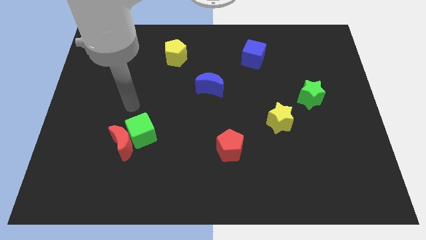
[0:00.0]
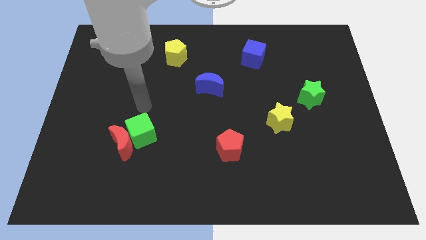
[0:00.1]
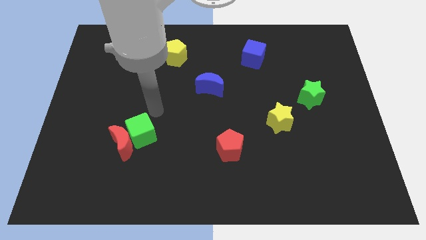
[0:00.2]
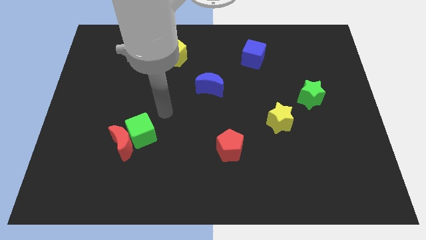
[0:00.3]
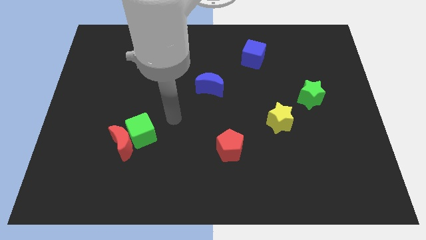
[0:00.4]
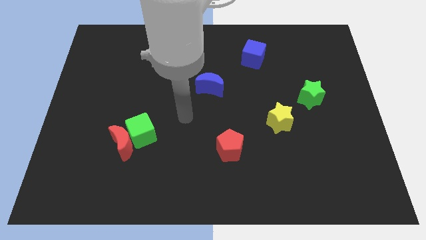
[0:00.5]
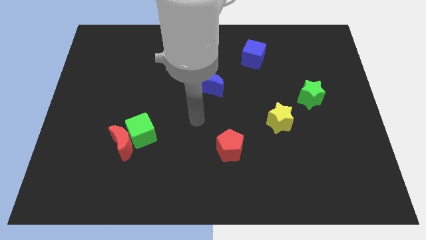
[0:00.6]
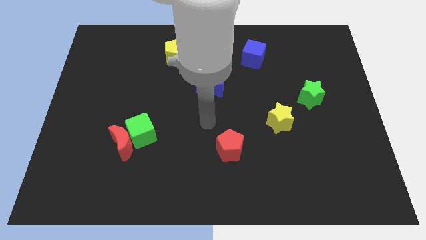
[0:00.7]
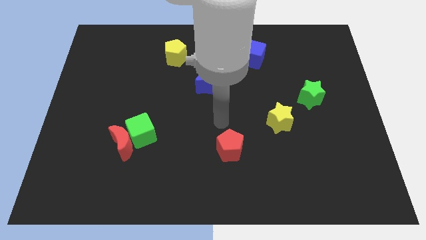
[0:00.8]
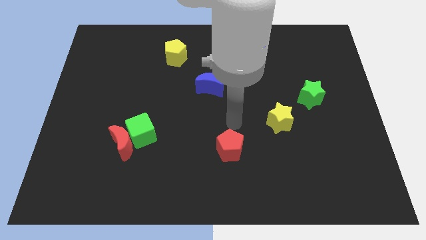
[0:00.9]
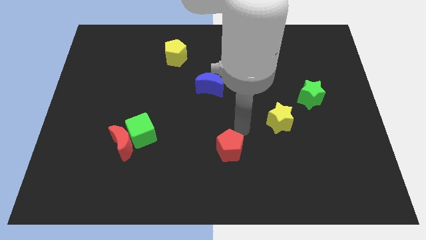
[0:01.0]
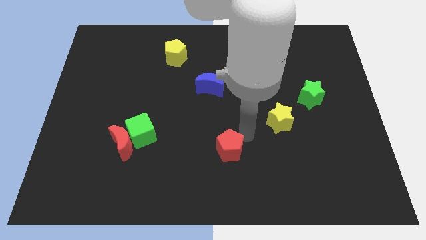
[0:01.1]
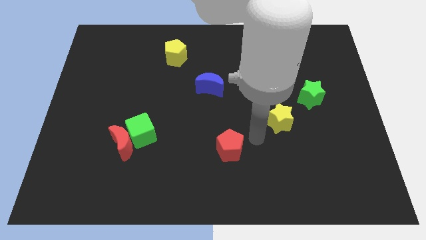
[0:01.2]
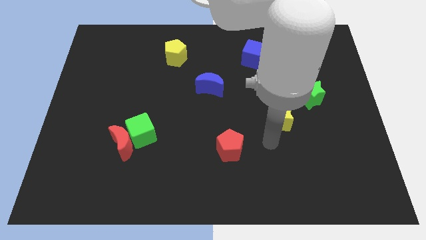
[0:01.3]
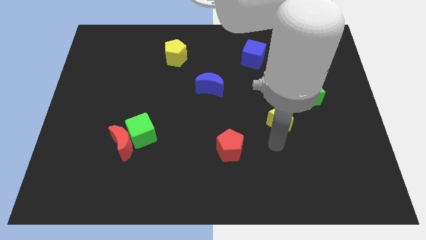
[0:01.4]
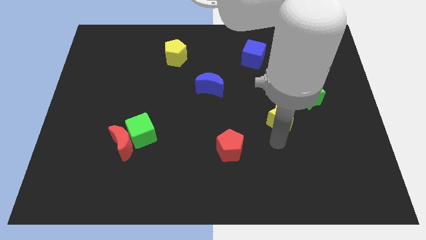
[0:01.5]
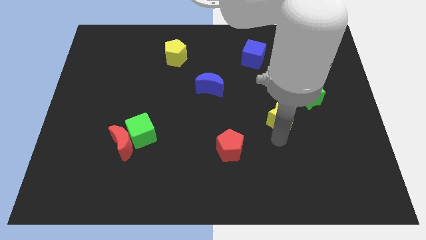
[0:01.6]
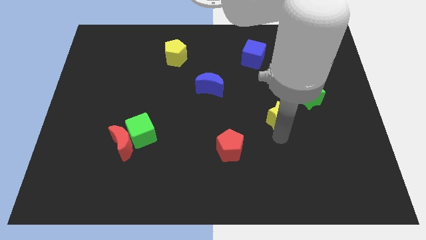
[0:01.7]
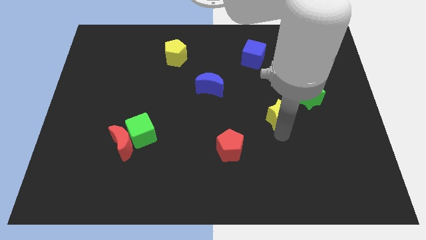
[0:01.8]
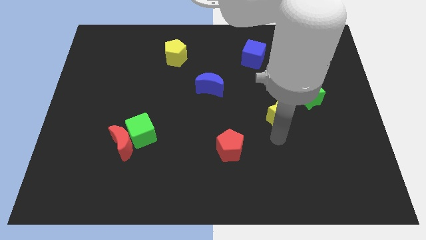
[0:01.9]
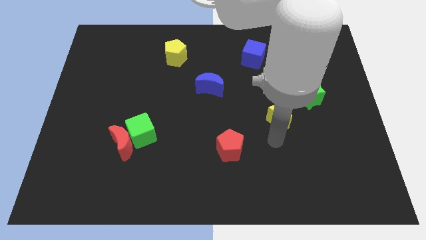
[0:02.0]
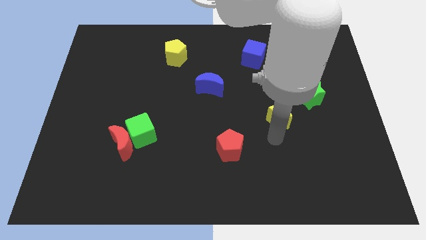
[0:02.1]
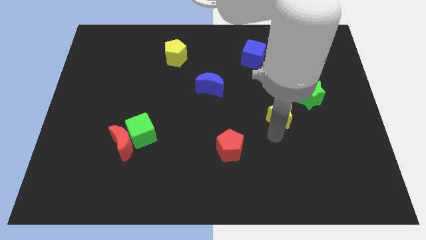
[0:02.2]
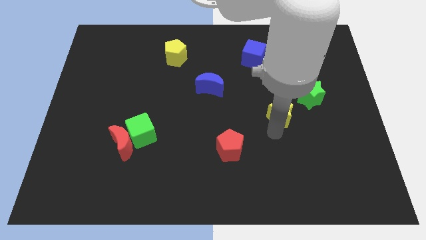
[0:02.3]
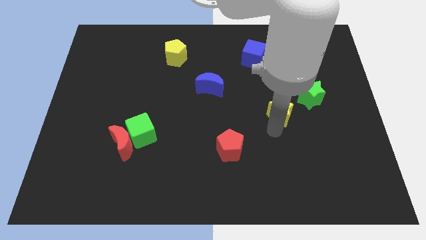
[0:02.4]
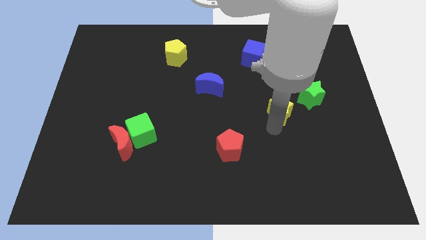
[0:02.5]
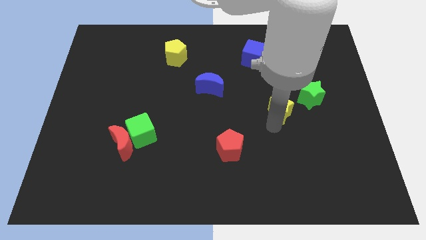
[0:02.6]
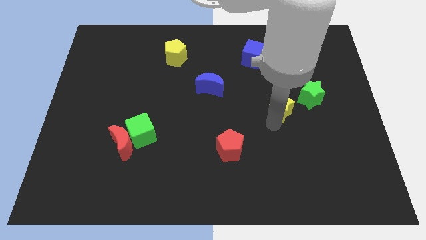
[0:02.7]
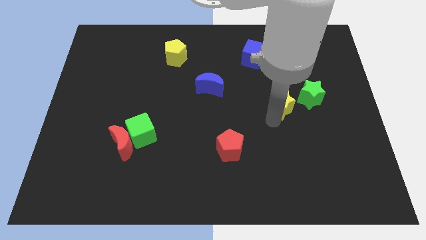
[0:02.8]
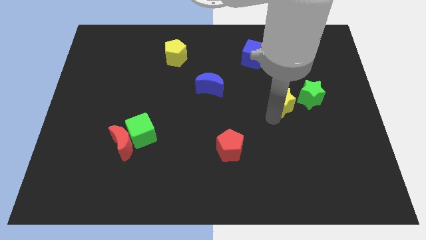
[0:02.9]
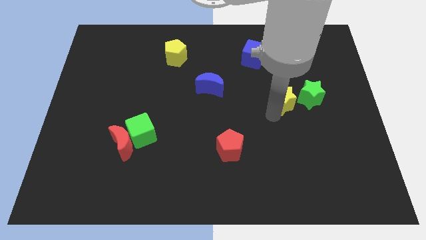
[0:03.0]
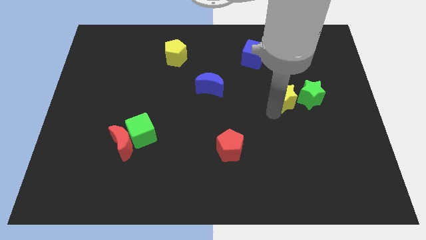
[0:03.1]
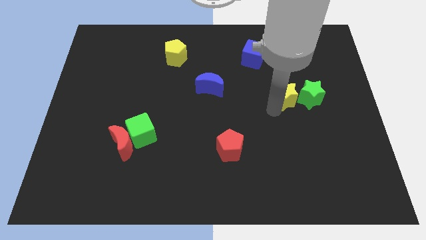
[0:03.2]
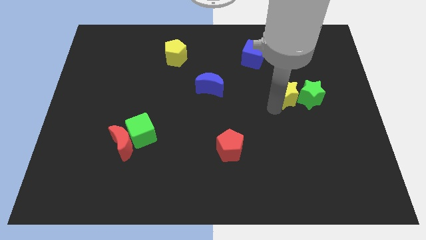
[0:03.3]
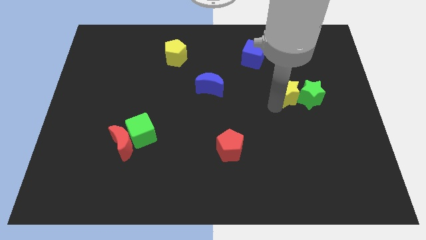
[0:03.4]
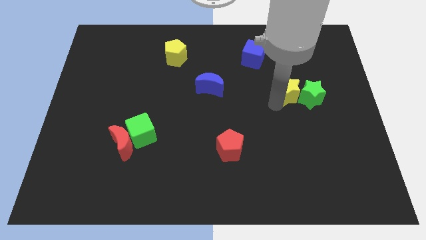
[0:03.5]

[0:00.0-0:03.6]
slightly push the yellow star up and right

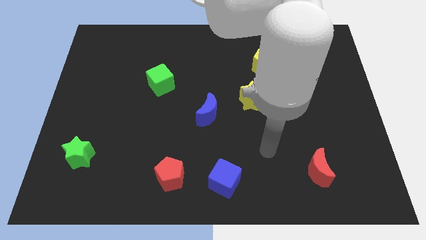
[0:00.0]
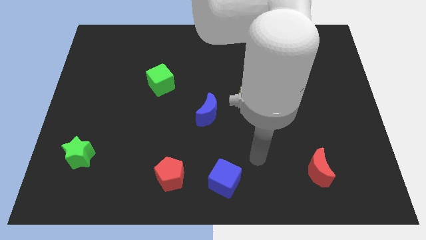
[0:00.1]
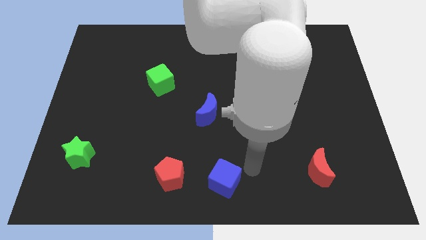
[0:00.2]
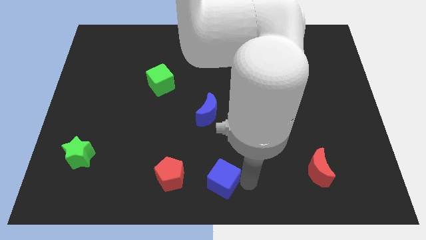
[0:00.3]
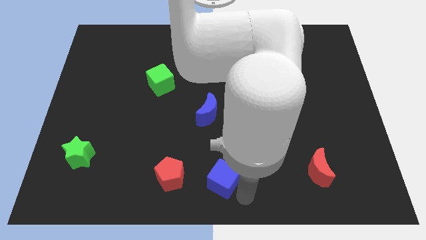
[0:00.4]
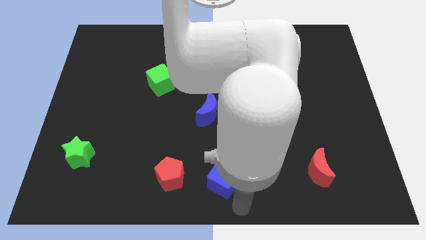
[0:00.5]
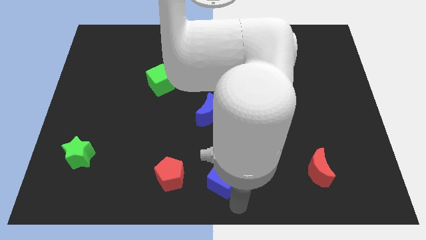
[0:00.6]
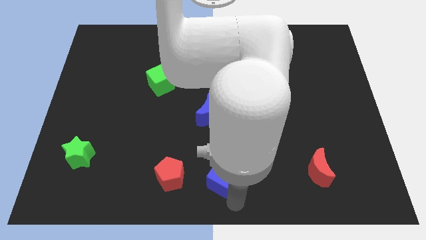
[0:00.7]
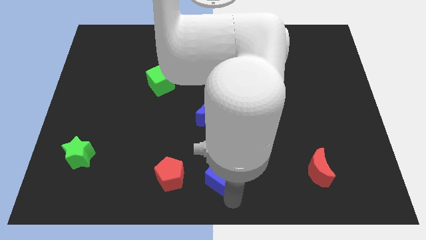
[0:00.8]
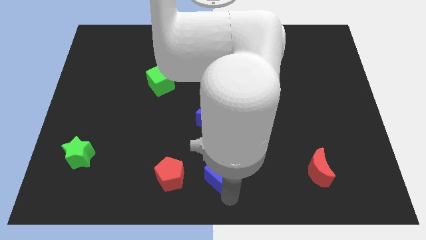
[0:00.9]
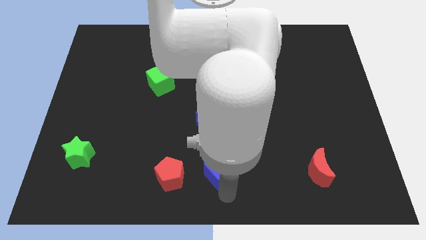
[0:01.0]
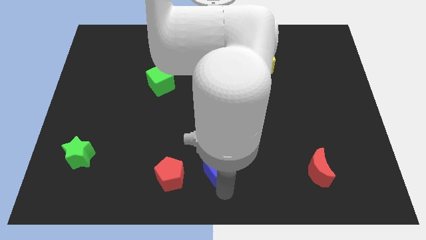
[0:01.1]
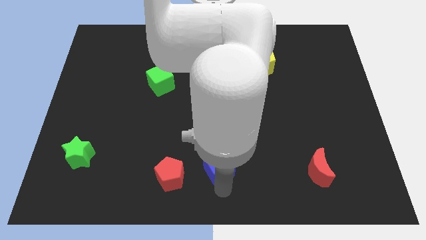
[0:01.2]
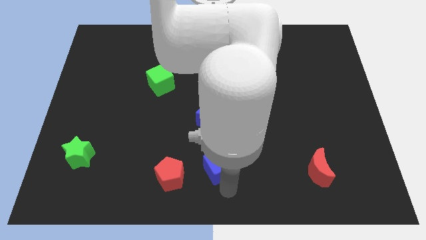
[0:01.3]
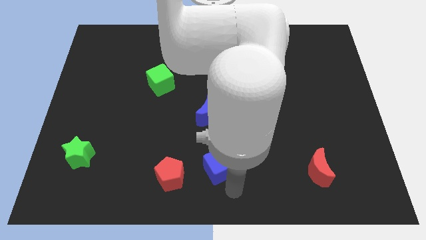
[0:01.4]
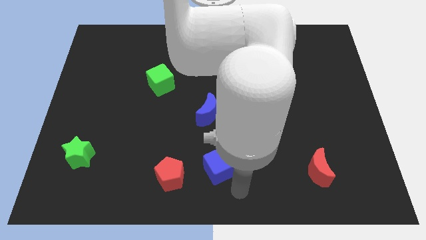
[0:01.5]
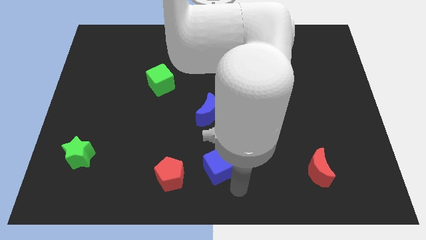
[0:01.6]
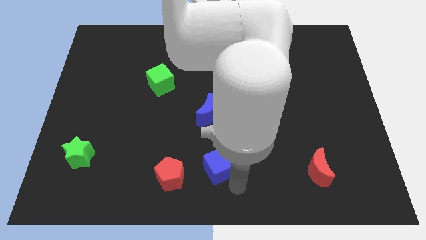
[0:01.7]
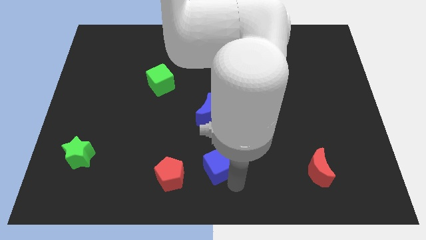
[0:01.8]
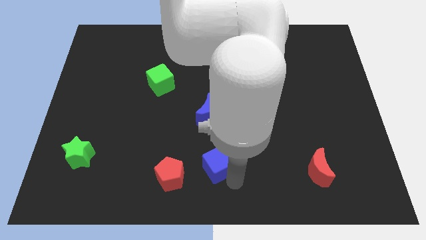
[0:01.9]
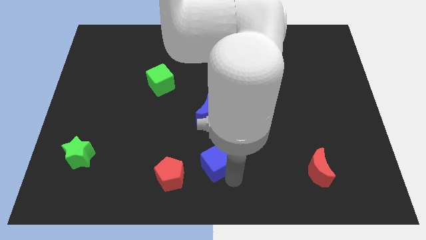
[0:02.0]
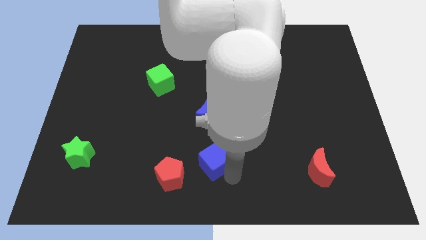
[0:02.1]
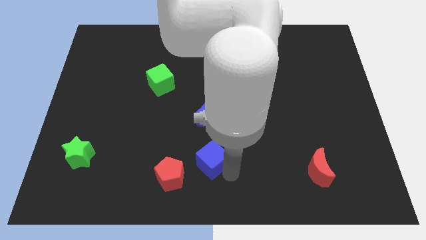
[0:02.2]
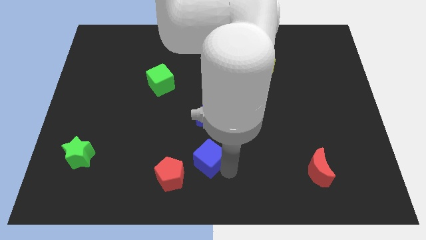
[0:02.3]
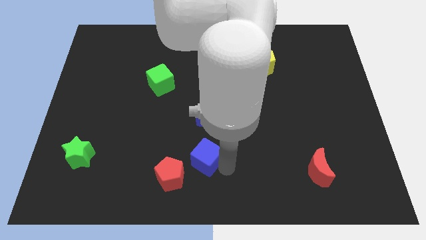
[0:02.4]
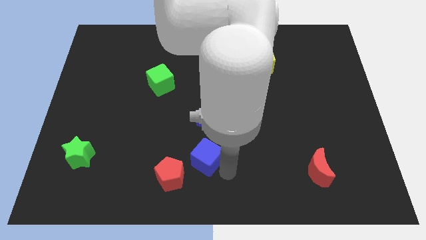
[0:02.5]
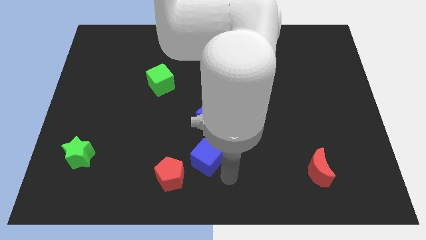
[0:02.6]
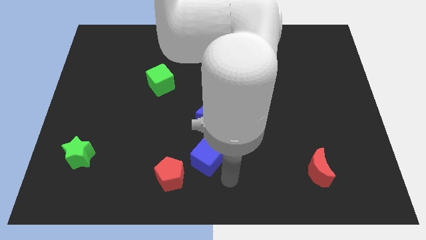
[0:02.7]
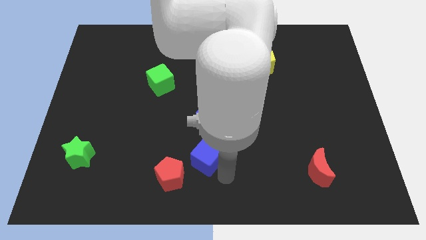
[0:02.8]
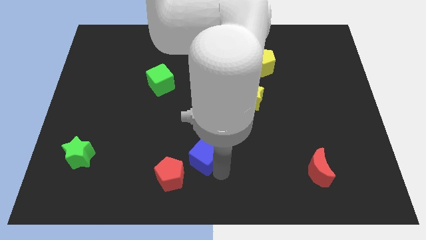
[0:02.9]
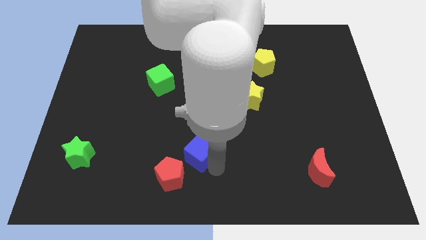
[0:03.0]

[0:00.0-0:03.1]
push the blue cube slightly up and left

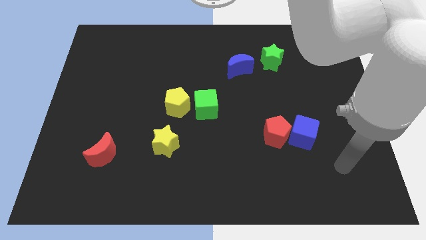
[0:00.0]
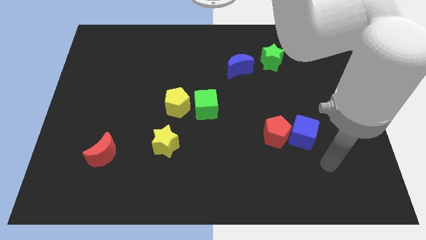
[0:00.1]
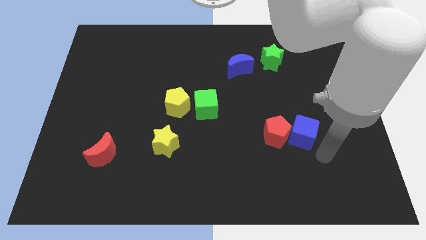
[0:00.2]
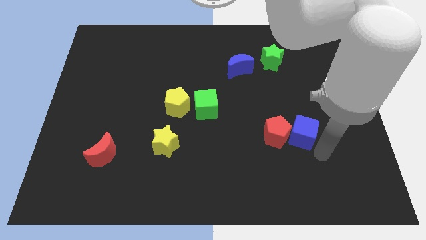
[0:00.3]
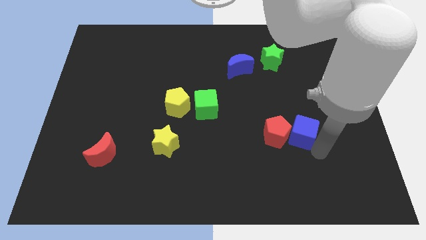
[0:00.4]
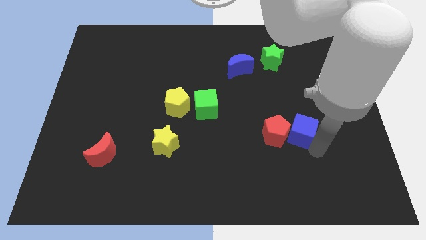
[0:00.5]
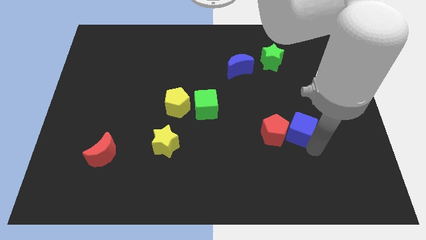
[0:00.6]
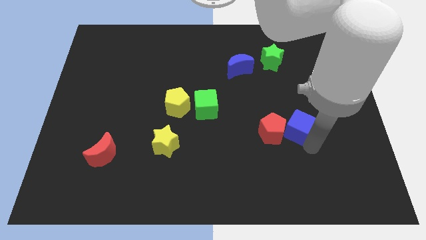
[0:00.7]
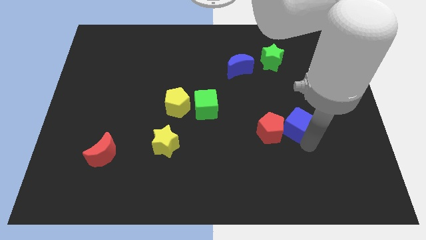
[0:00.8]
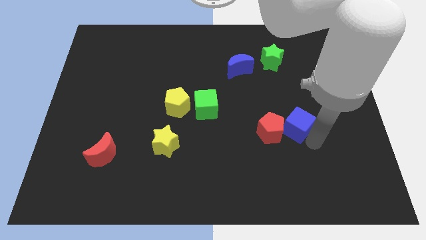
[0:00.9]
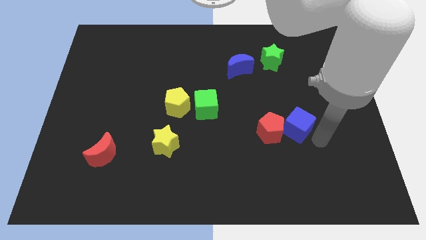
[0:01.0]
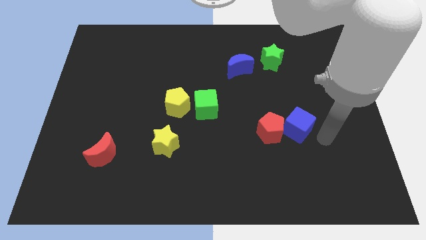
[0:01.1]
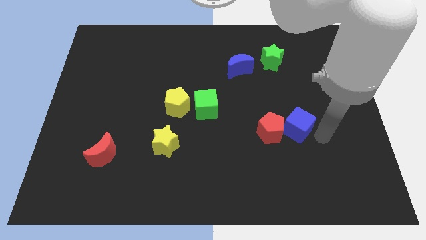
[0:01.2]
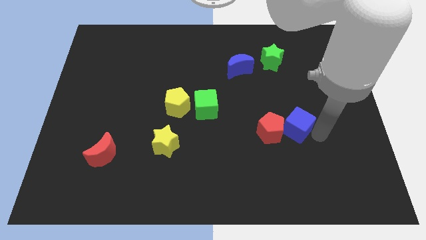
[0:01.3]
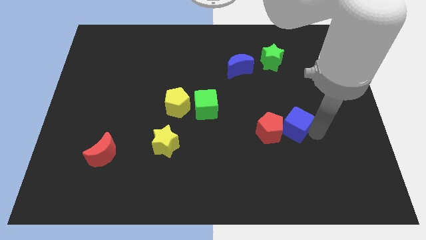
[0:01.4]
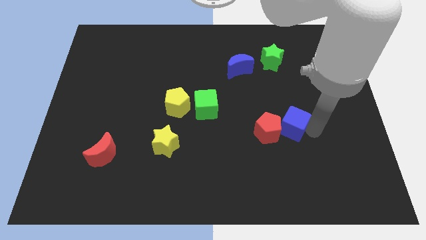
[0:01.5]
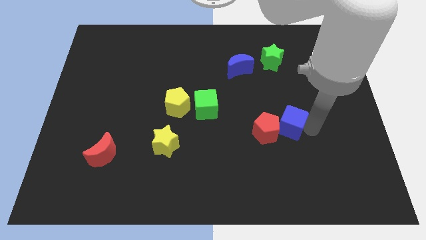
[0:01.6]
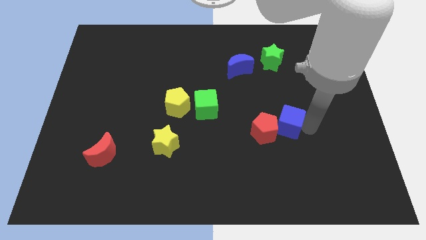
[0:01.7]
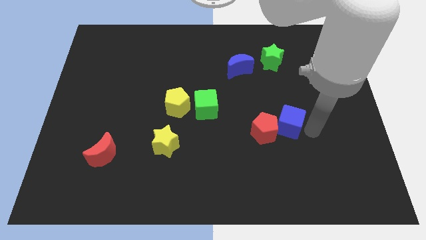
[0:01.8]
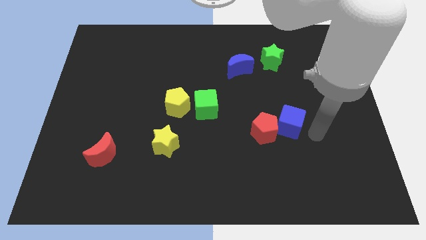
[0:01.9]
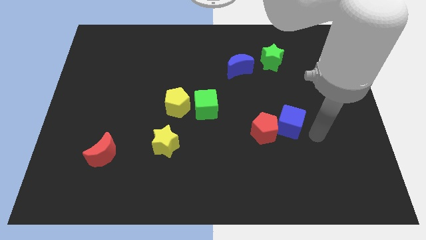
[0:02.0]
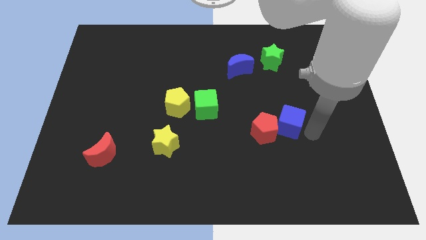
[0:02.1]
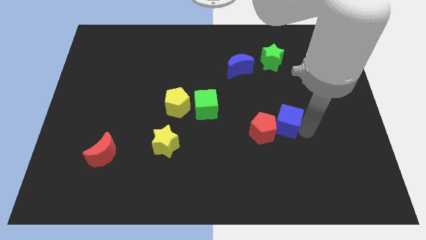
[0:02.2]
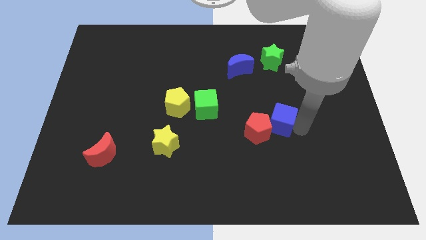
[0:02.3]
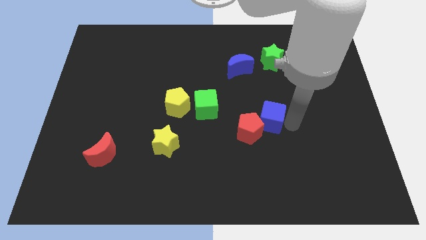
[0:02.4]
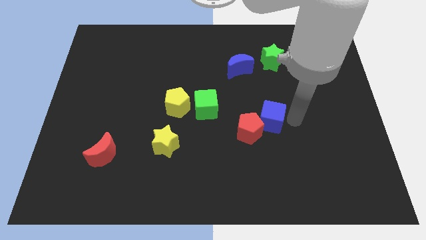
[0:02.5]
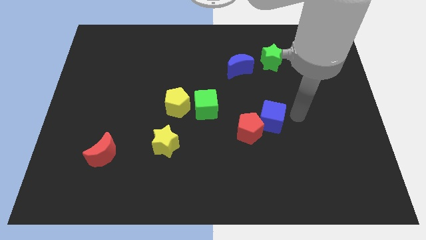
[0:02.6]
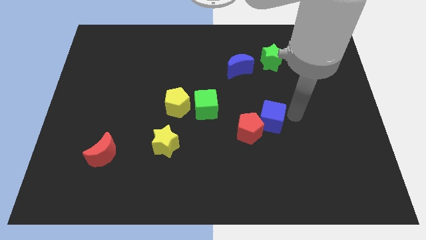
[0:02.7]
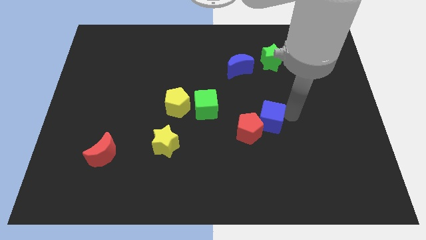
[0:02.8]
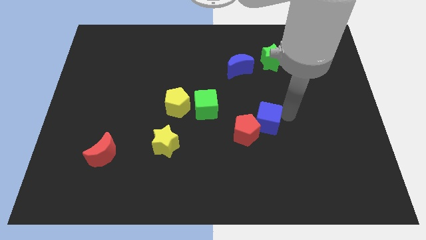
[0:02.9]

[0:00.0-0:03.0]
slightly move the blue cube to the left
